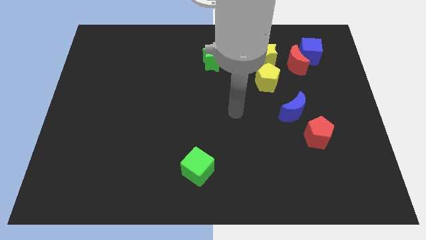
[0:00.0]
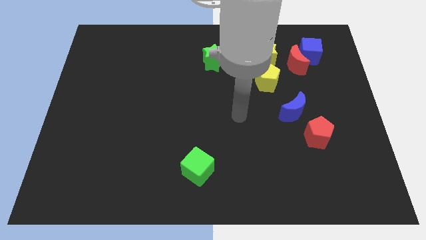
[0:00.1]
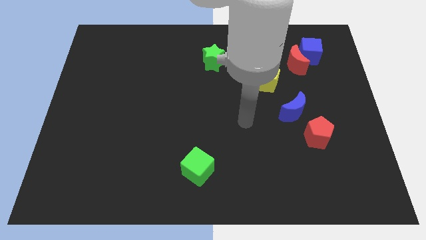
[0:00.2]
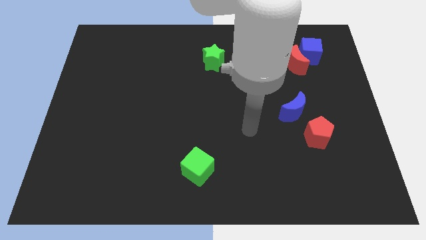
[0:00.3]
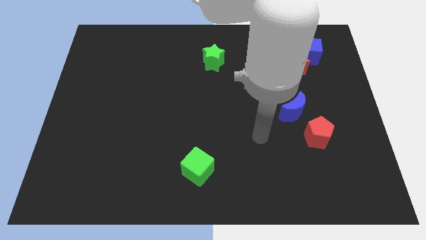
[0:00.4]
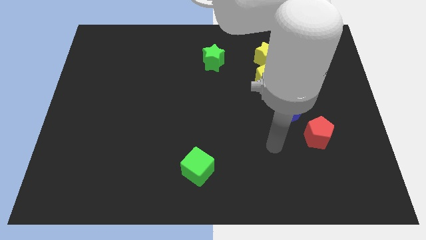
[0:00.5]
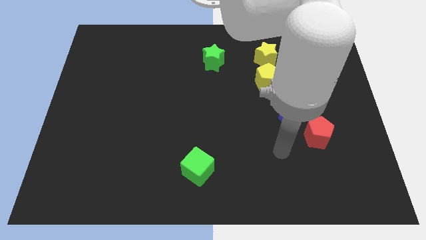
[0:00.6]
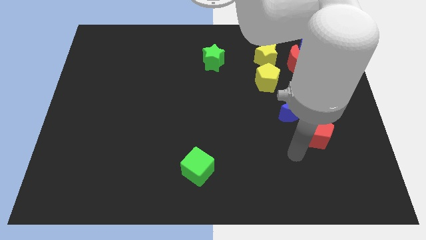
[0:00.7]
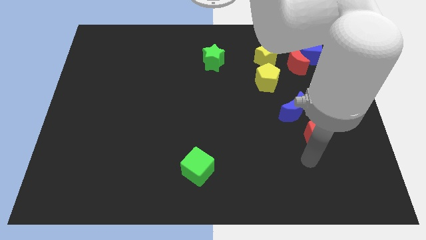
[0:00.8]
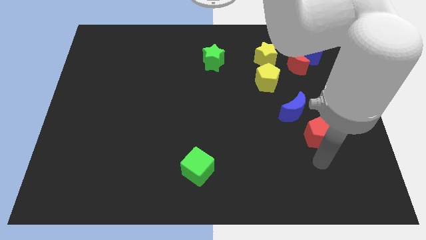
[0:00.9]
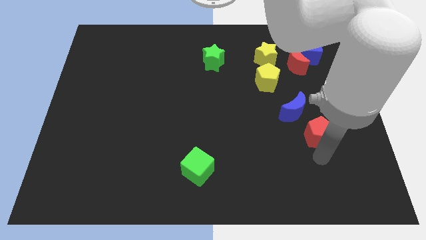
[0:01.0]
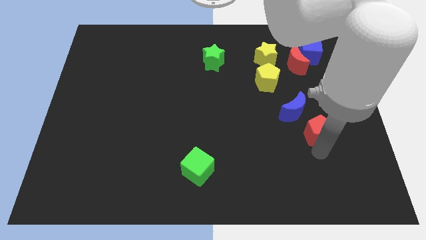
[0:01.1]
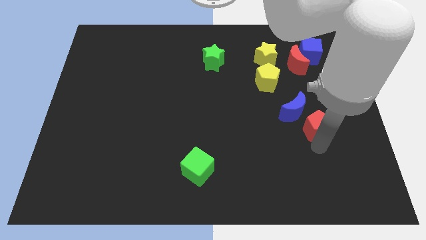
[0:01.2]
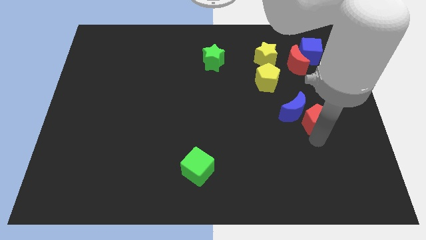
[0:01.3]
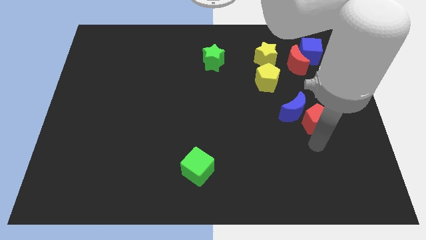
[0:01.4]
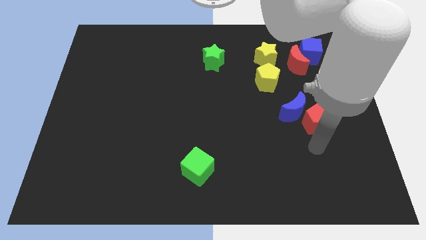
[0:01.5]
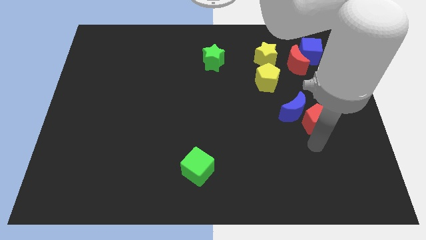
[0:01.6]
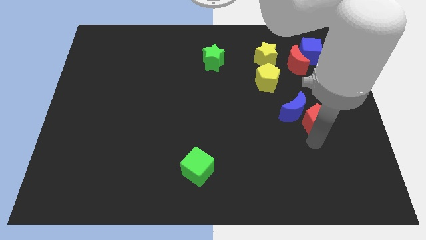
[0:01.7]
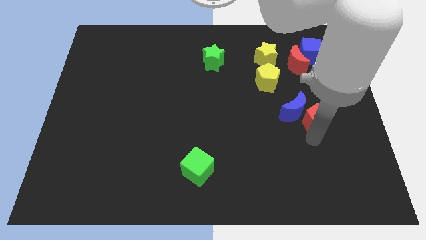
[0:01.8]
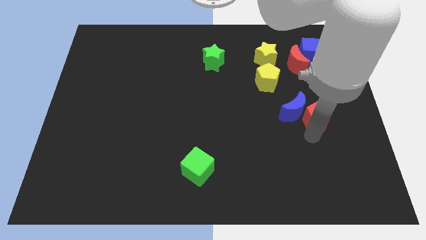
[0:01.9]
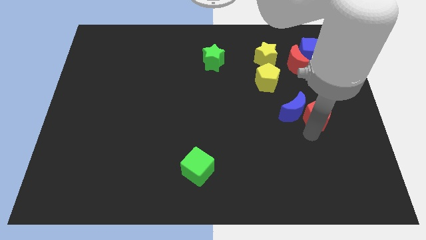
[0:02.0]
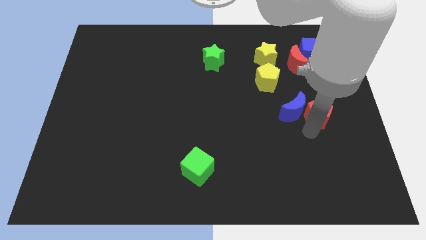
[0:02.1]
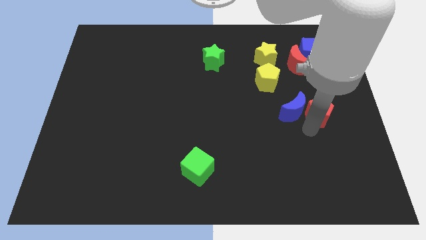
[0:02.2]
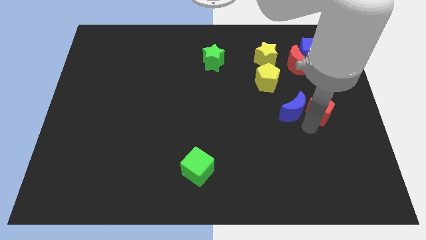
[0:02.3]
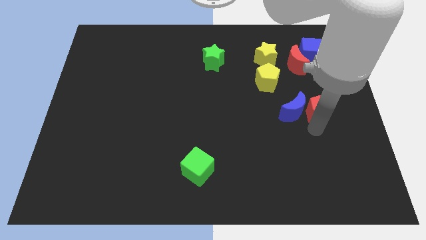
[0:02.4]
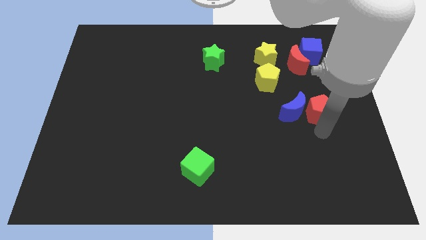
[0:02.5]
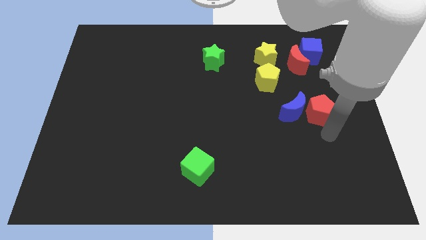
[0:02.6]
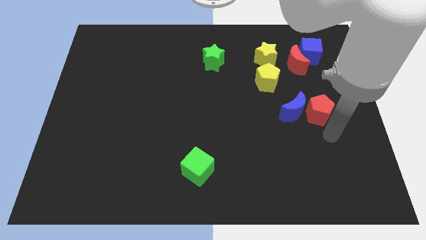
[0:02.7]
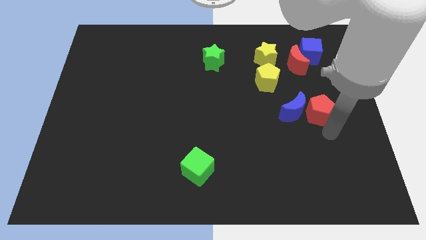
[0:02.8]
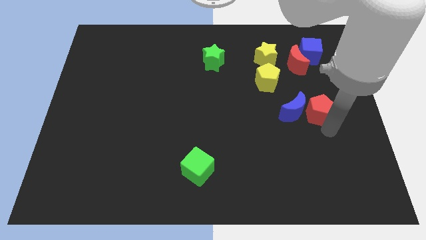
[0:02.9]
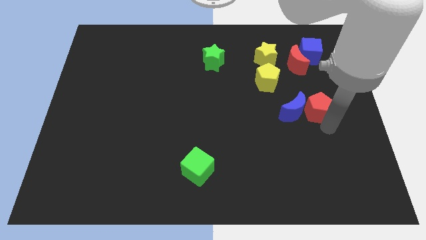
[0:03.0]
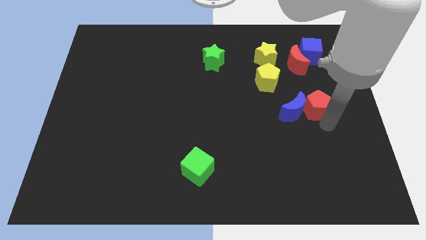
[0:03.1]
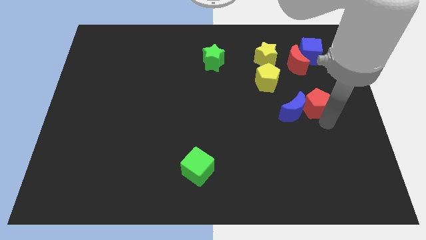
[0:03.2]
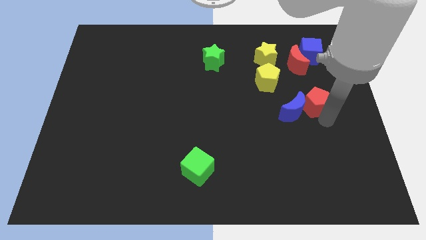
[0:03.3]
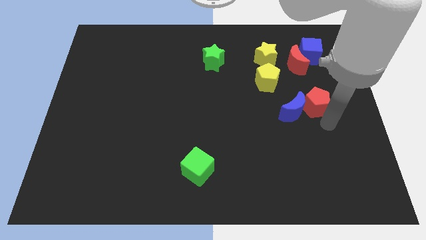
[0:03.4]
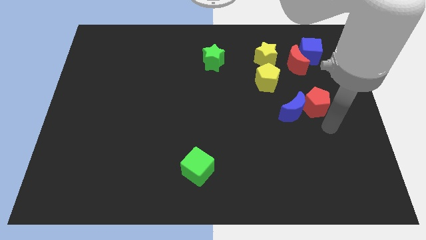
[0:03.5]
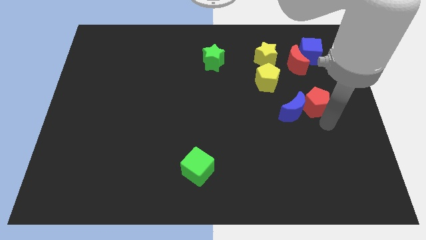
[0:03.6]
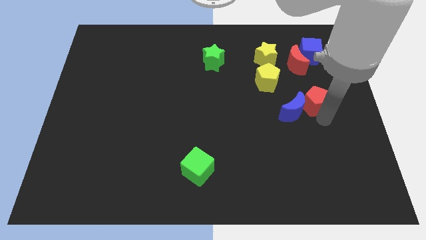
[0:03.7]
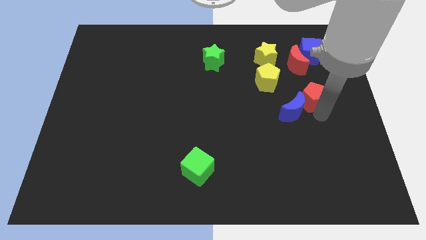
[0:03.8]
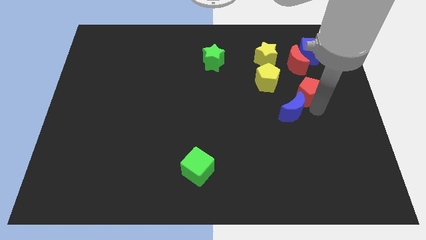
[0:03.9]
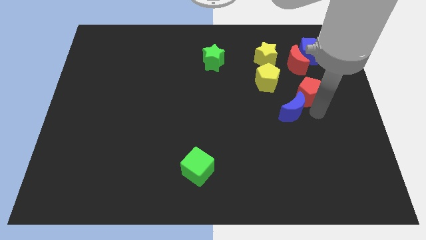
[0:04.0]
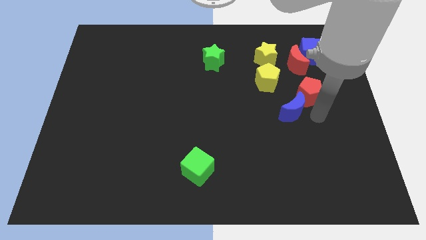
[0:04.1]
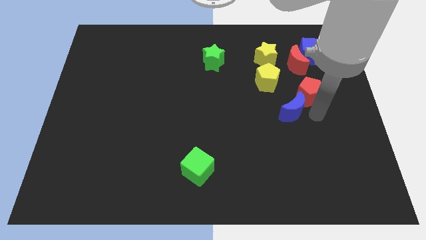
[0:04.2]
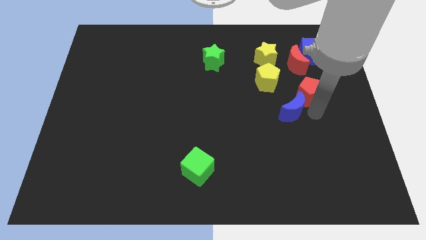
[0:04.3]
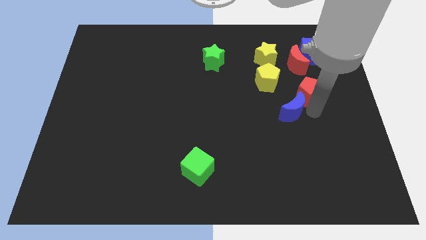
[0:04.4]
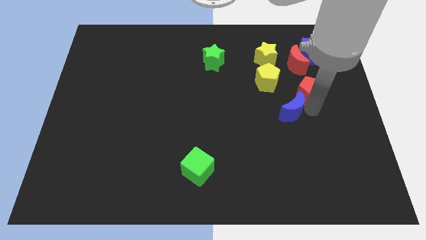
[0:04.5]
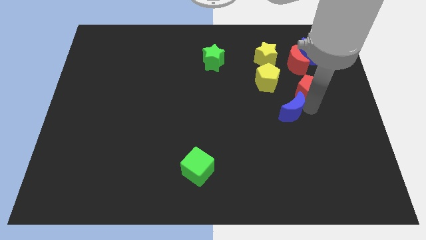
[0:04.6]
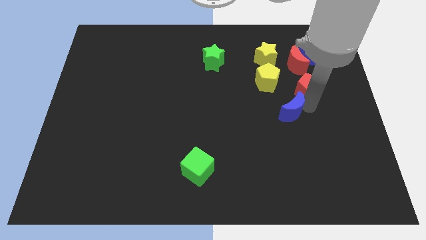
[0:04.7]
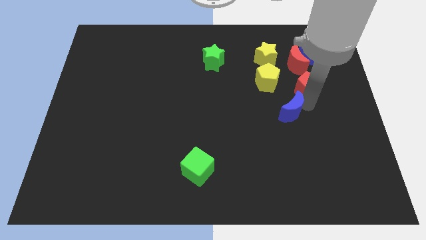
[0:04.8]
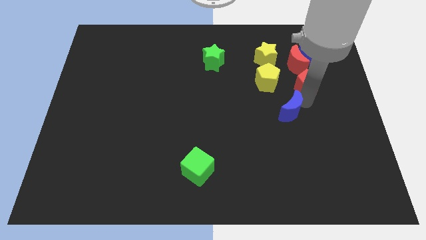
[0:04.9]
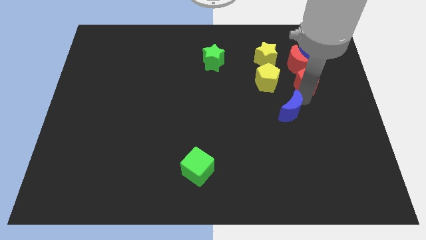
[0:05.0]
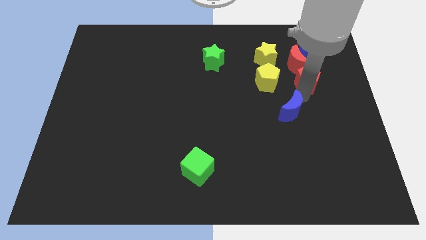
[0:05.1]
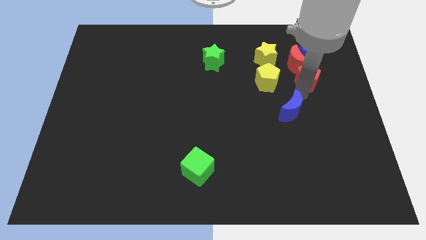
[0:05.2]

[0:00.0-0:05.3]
push the red pentagon close to the red moon

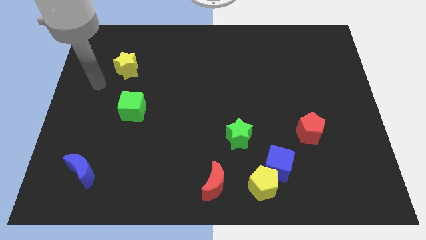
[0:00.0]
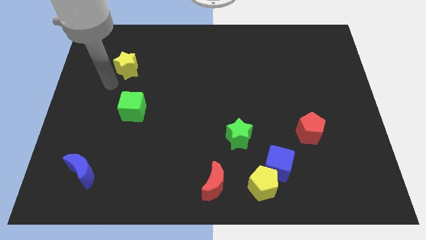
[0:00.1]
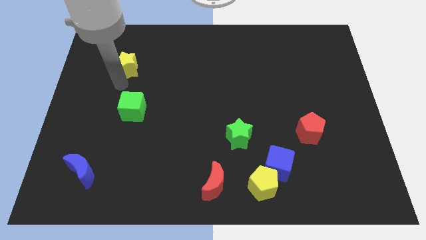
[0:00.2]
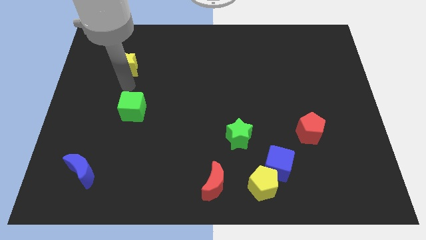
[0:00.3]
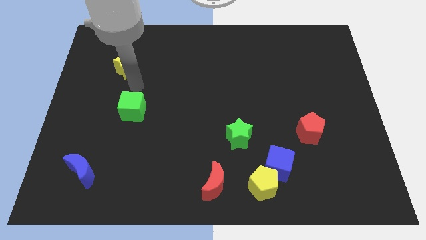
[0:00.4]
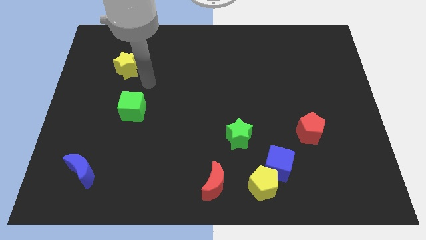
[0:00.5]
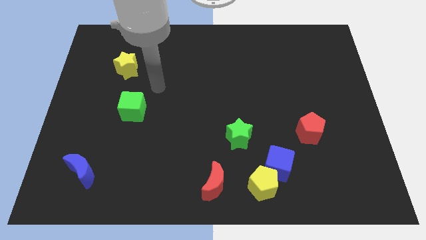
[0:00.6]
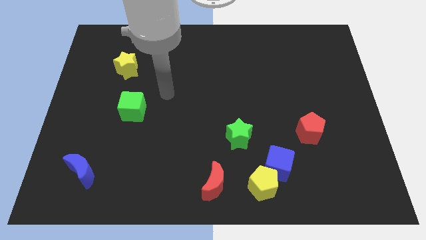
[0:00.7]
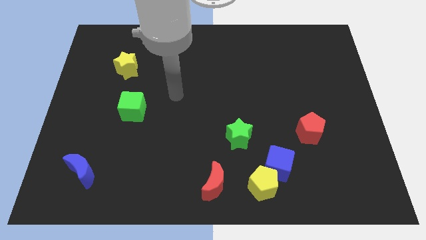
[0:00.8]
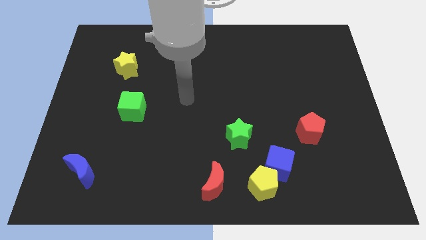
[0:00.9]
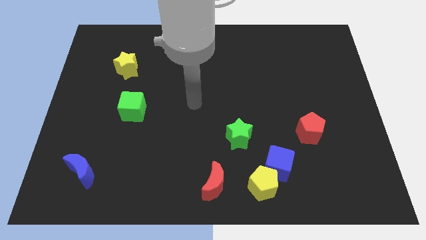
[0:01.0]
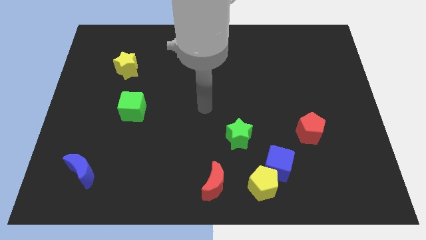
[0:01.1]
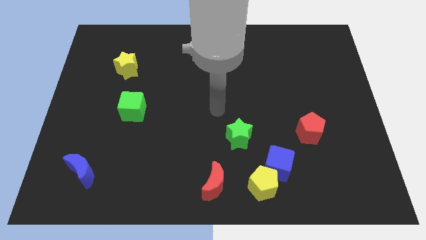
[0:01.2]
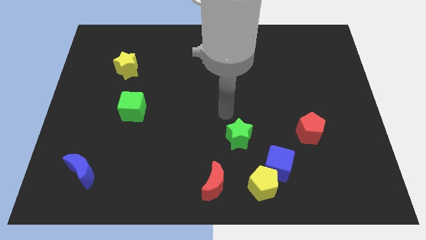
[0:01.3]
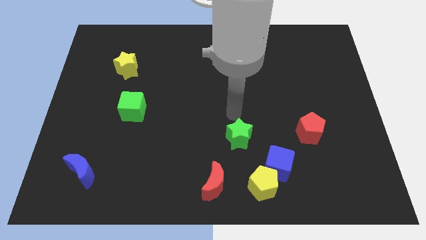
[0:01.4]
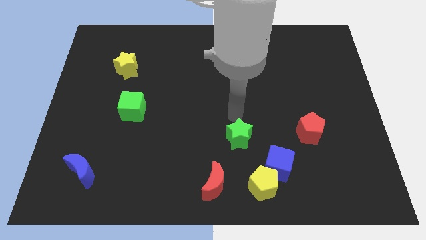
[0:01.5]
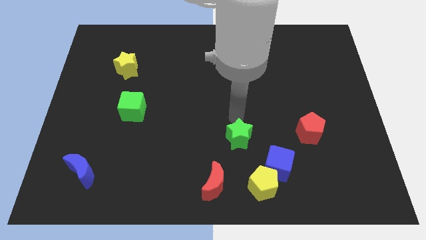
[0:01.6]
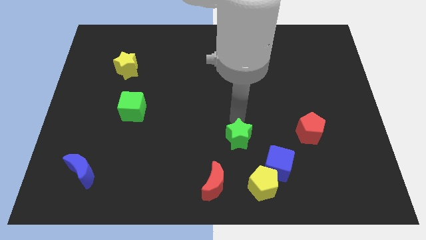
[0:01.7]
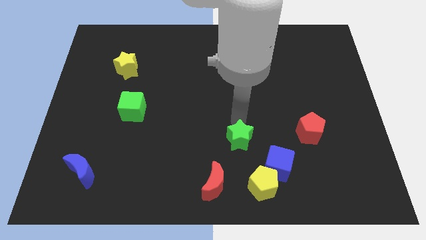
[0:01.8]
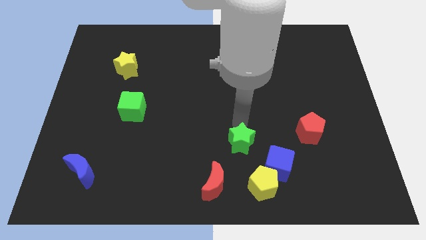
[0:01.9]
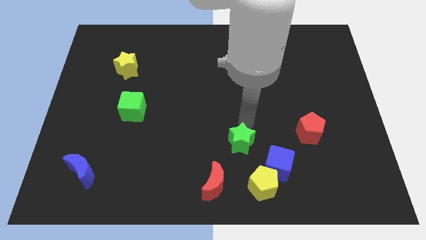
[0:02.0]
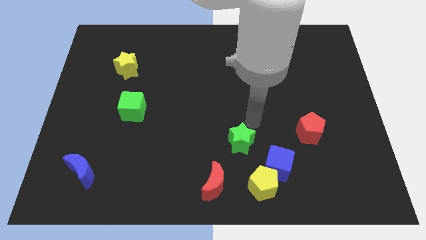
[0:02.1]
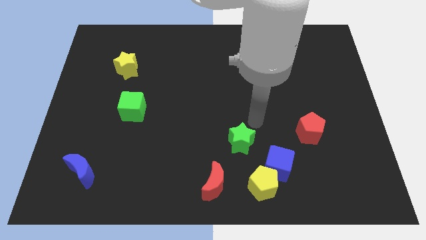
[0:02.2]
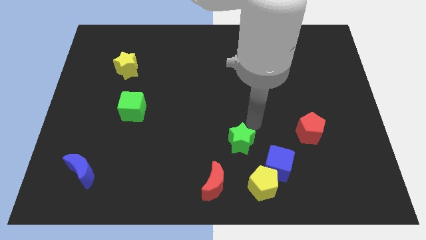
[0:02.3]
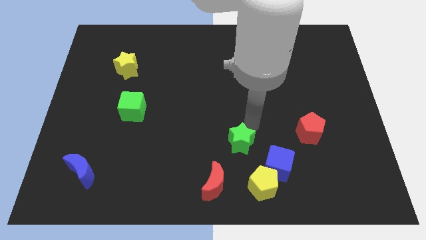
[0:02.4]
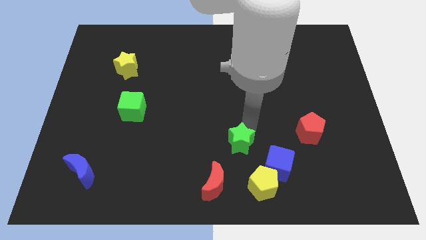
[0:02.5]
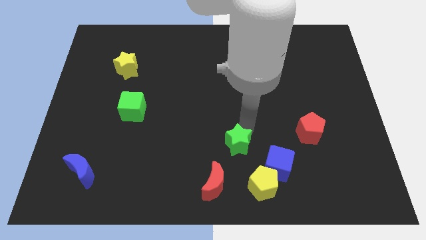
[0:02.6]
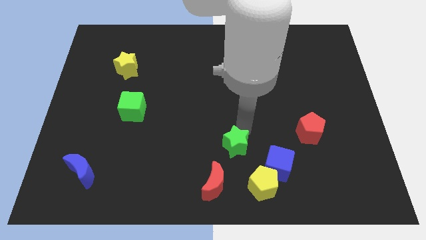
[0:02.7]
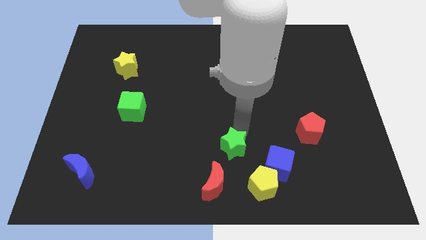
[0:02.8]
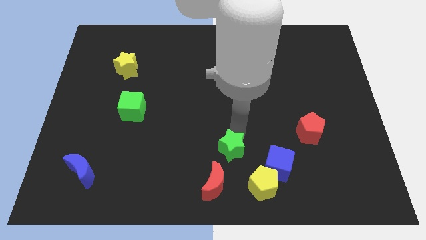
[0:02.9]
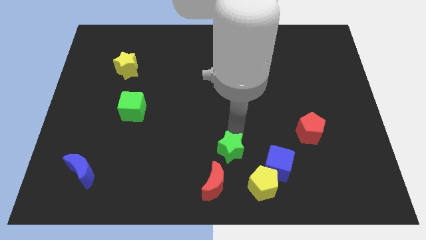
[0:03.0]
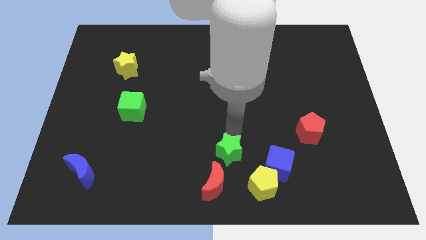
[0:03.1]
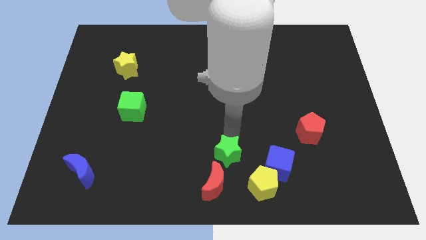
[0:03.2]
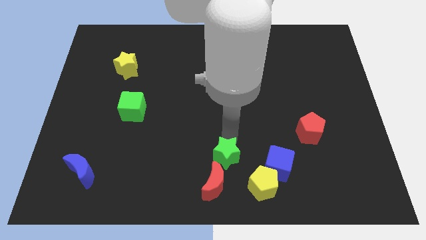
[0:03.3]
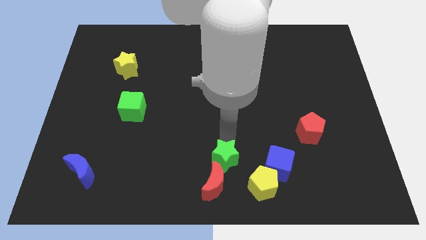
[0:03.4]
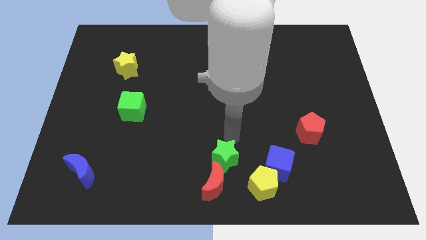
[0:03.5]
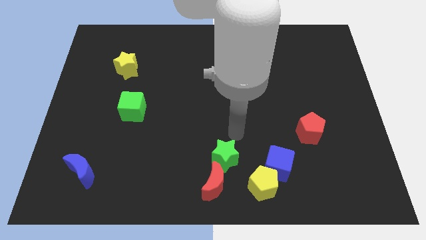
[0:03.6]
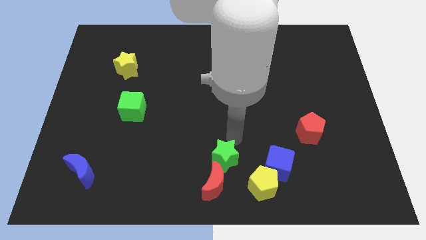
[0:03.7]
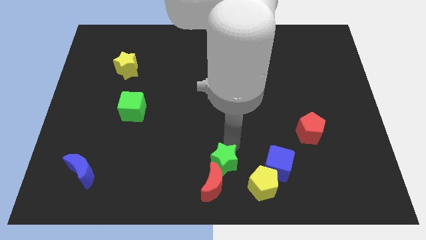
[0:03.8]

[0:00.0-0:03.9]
push the green star close to the red moon
